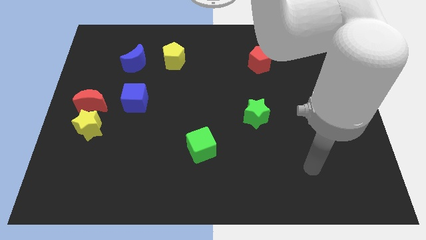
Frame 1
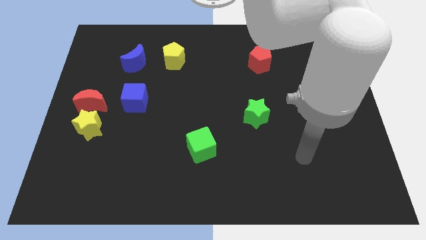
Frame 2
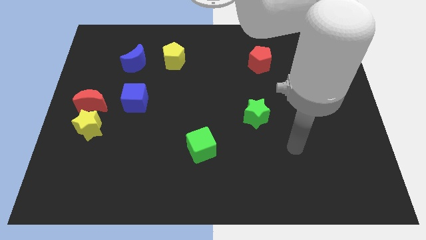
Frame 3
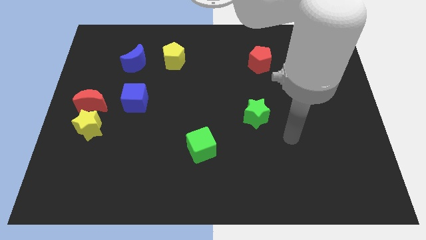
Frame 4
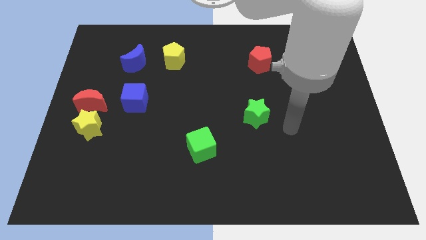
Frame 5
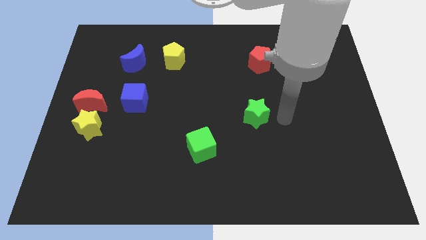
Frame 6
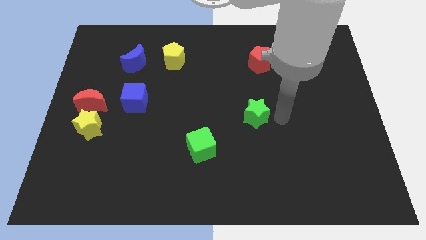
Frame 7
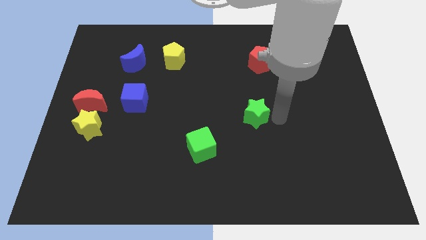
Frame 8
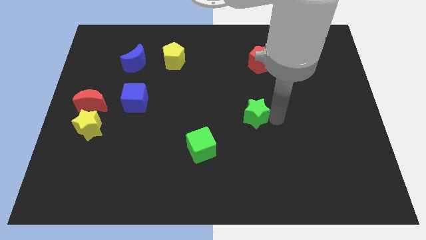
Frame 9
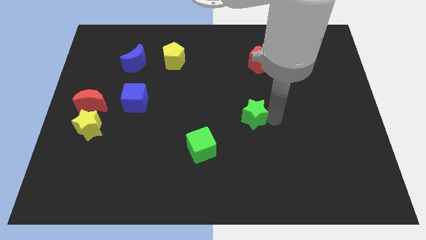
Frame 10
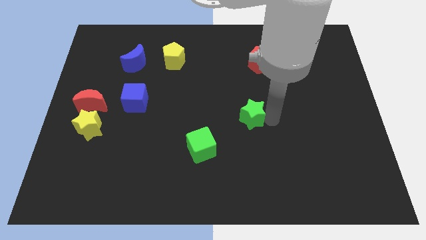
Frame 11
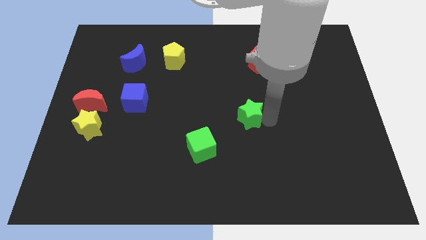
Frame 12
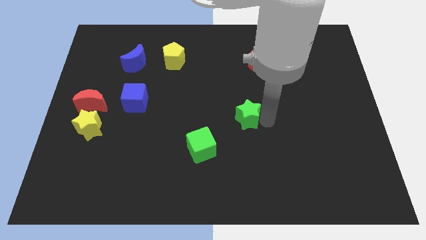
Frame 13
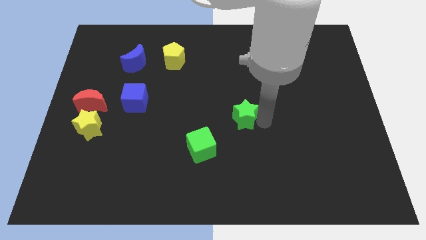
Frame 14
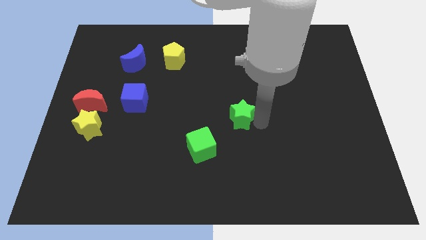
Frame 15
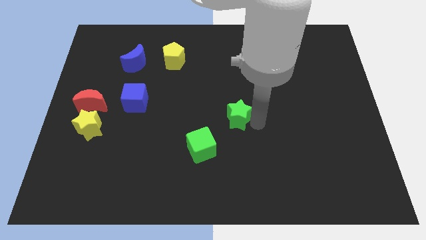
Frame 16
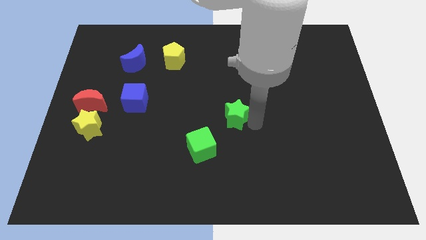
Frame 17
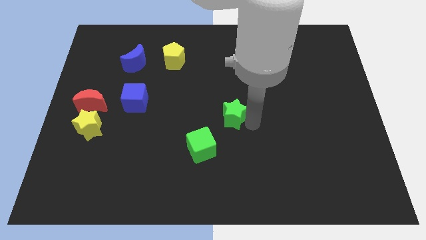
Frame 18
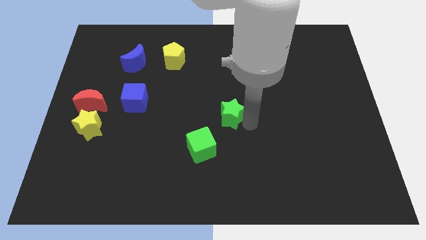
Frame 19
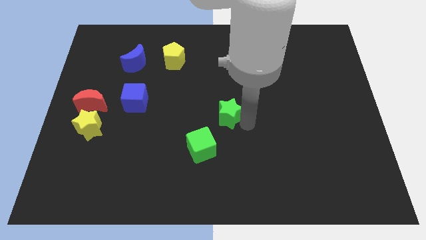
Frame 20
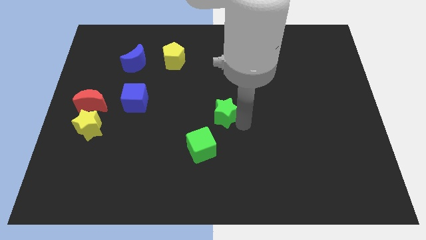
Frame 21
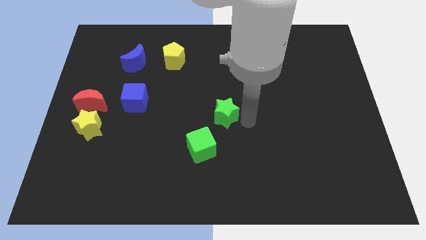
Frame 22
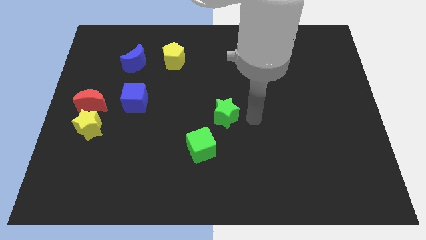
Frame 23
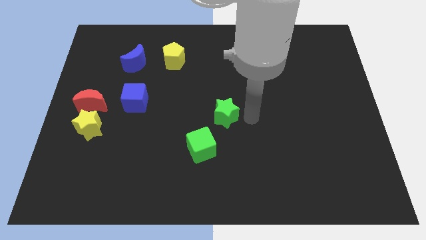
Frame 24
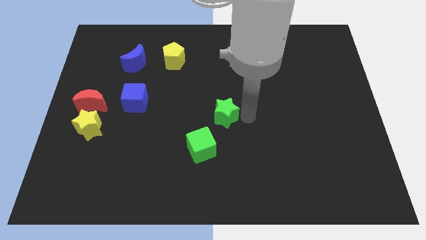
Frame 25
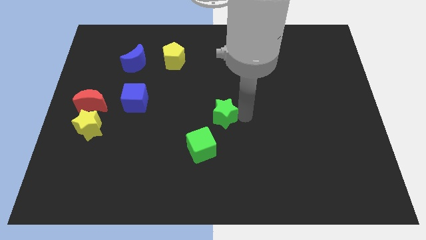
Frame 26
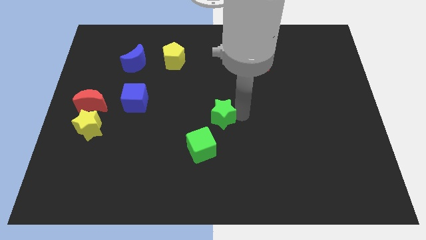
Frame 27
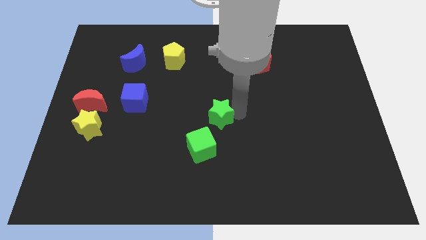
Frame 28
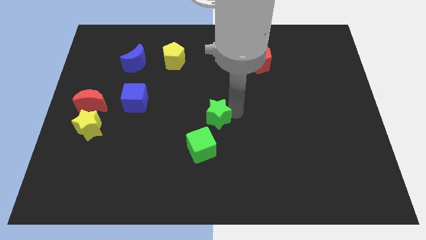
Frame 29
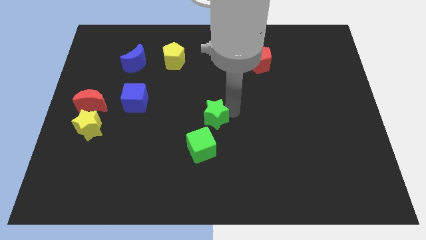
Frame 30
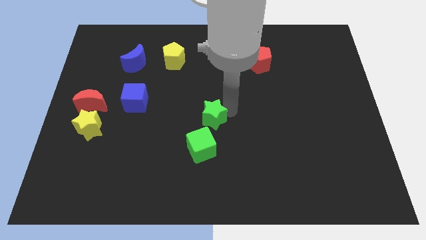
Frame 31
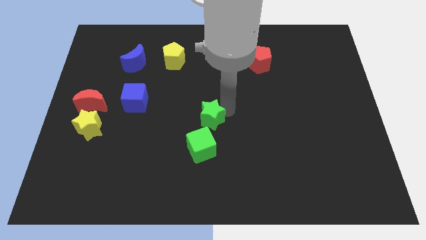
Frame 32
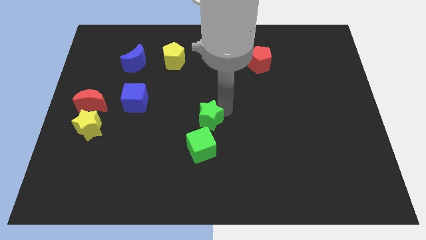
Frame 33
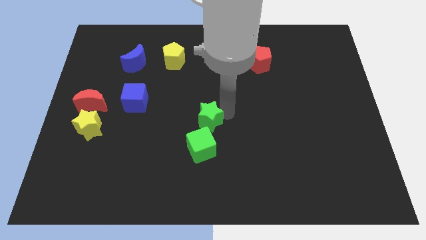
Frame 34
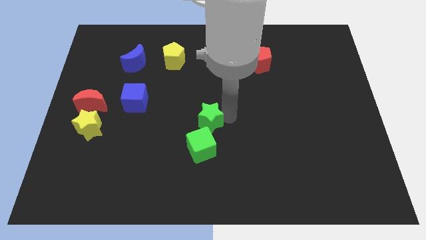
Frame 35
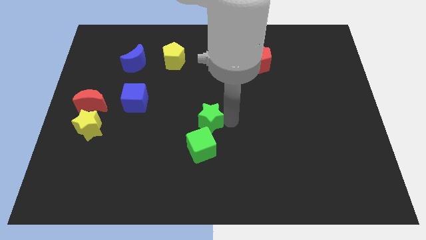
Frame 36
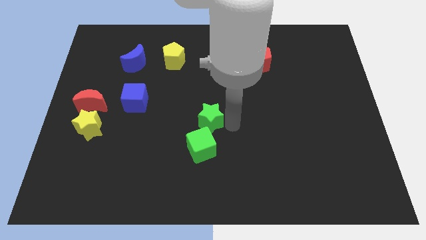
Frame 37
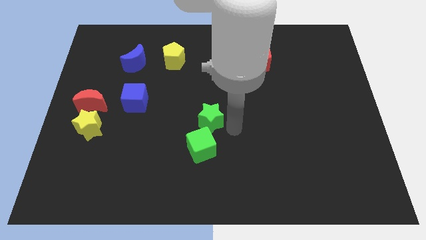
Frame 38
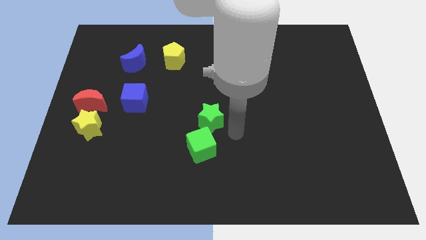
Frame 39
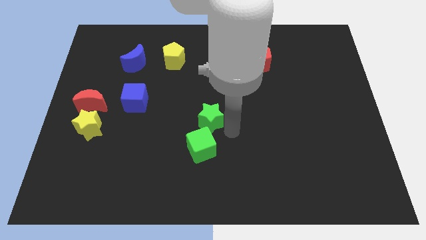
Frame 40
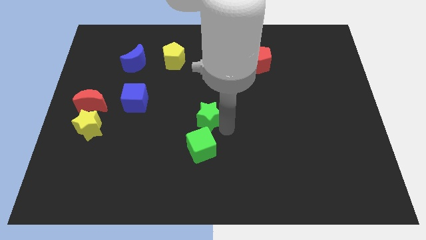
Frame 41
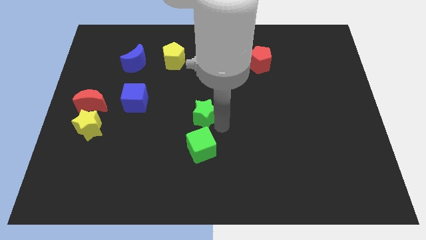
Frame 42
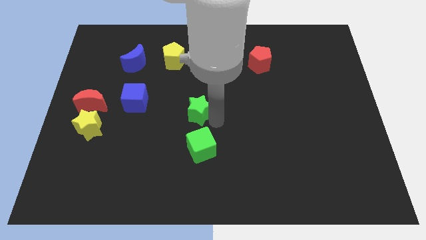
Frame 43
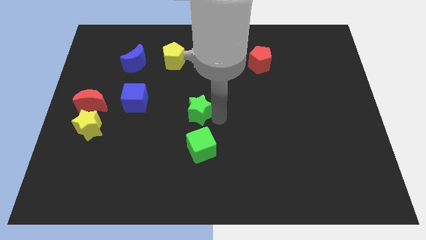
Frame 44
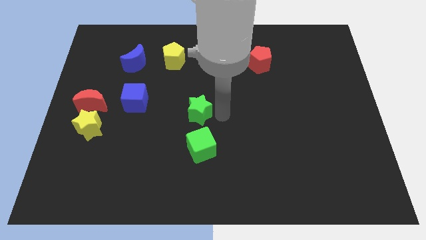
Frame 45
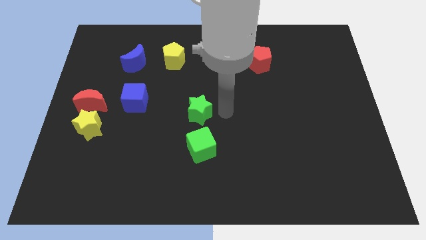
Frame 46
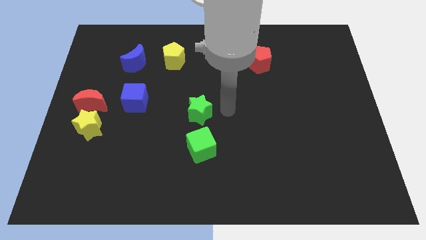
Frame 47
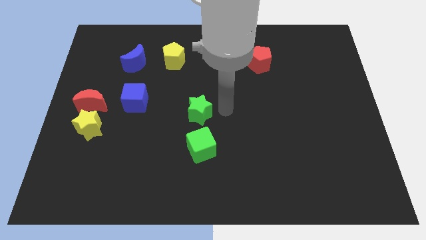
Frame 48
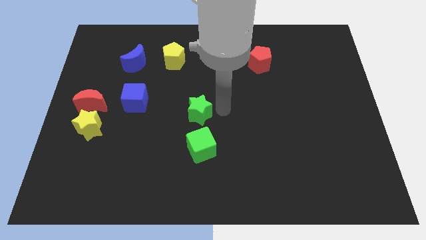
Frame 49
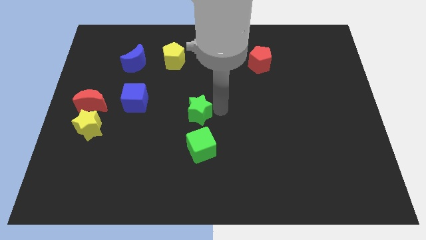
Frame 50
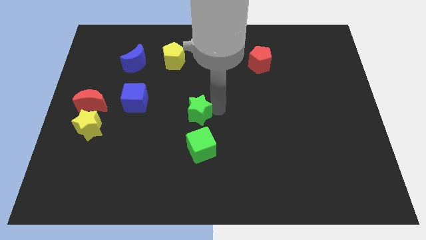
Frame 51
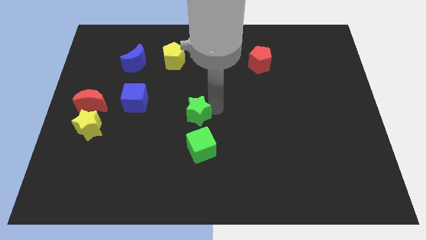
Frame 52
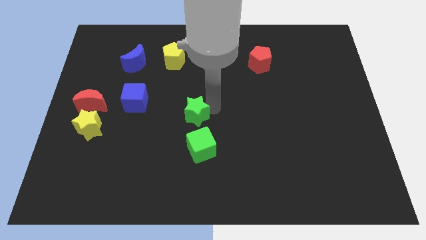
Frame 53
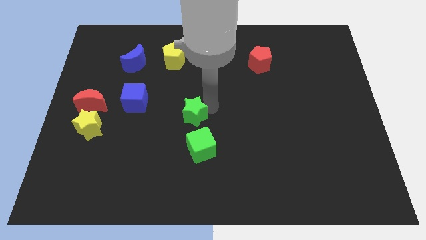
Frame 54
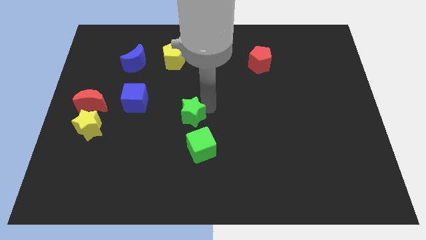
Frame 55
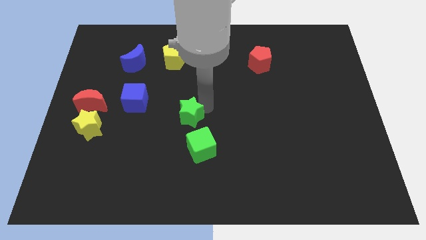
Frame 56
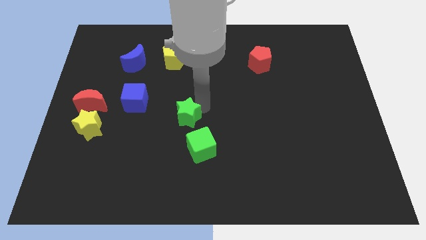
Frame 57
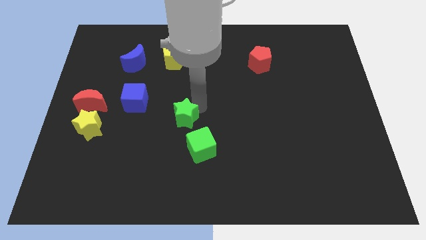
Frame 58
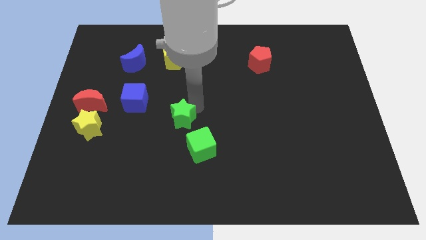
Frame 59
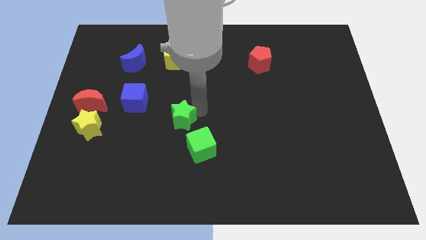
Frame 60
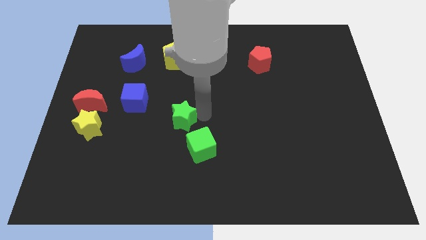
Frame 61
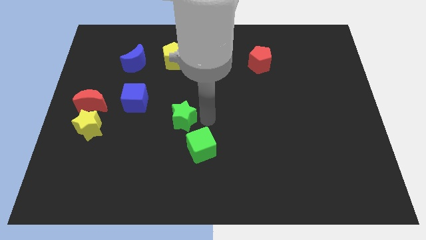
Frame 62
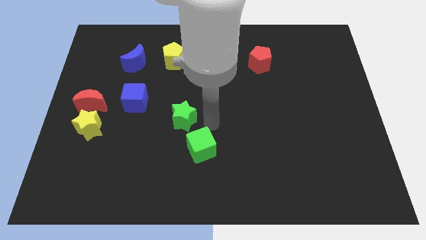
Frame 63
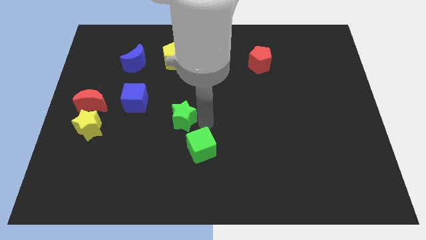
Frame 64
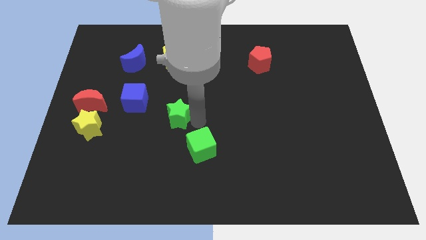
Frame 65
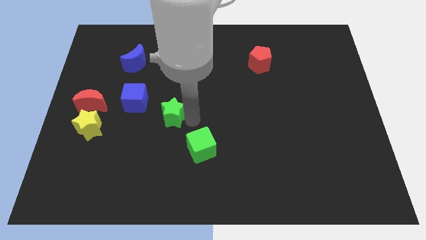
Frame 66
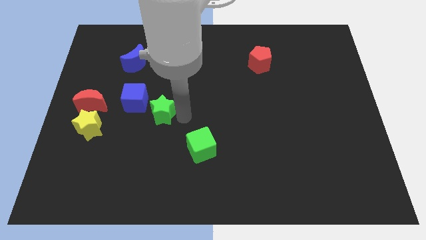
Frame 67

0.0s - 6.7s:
push the green star left

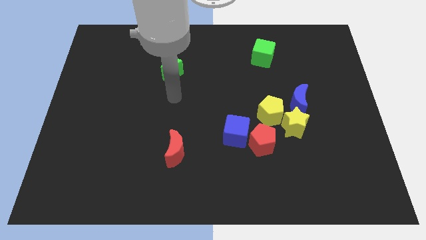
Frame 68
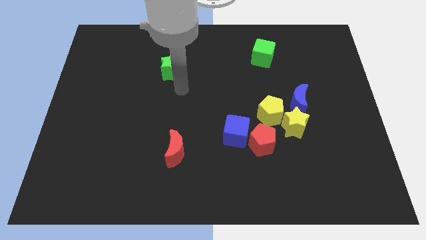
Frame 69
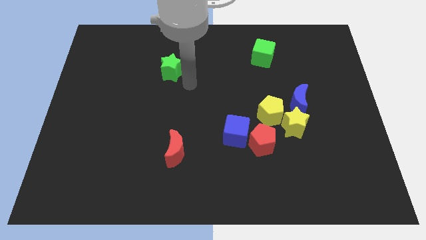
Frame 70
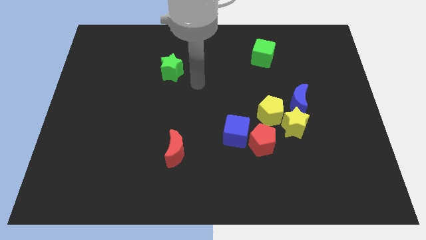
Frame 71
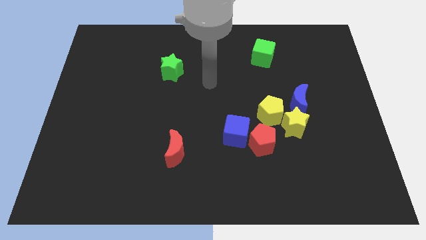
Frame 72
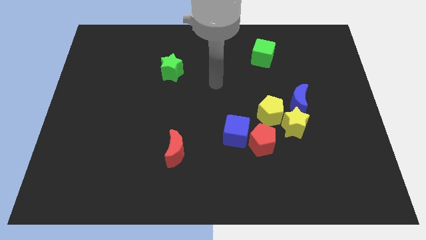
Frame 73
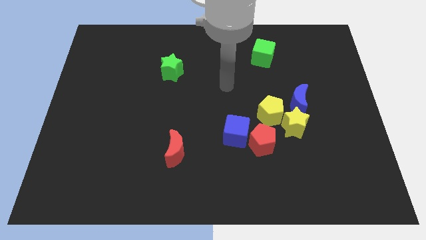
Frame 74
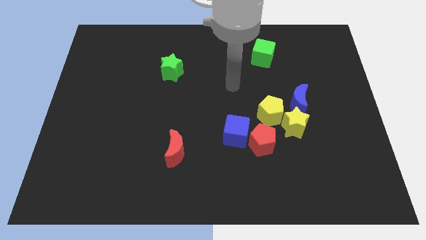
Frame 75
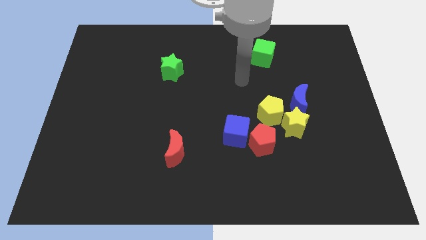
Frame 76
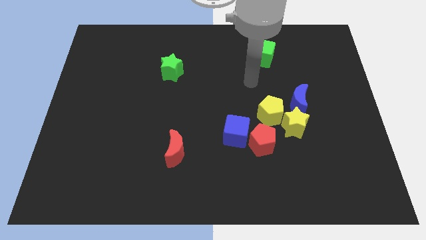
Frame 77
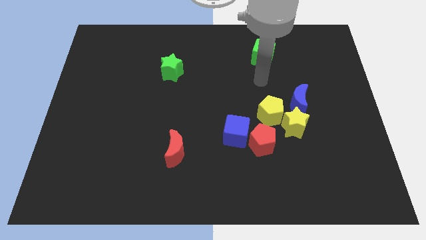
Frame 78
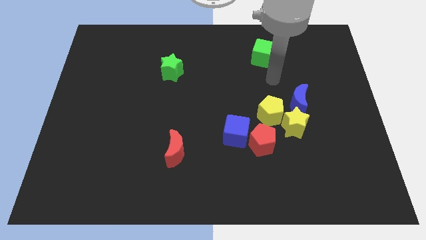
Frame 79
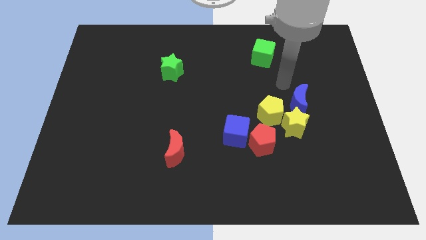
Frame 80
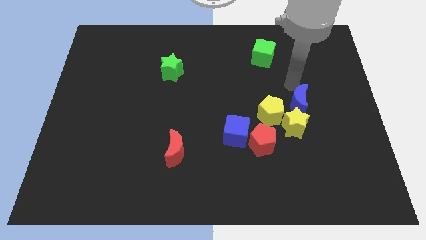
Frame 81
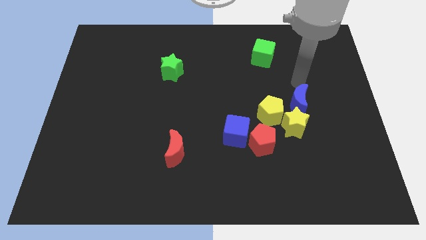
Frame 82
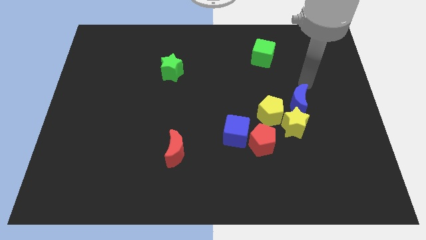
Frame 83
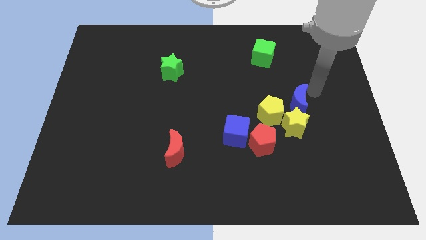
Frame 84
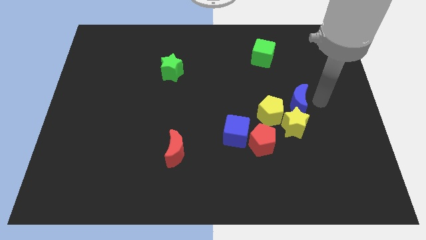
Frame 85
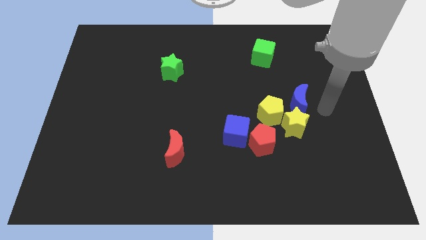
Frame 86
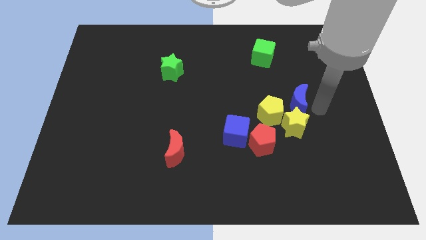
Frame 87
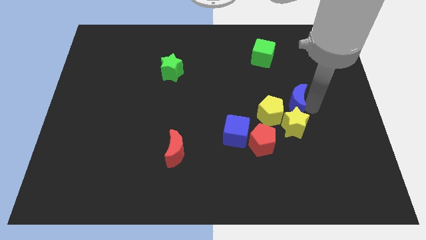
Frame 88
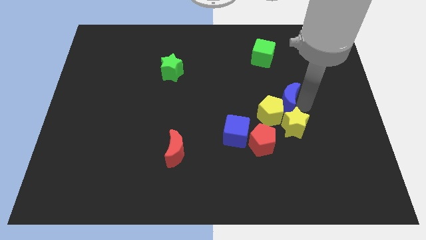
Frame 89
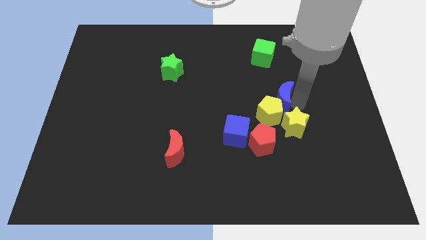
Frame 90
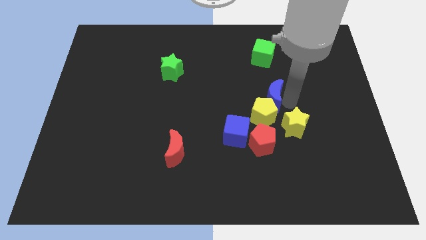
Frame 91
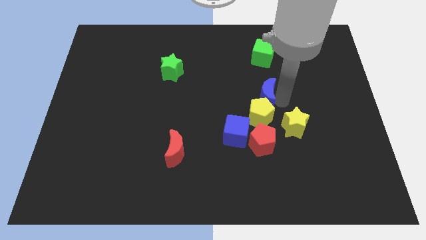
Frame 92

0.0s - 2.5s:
slide the blue moon a little to the left
